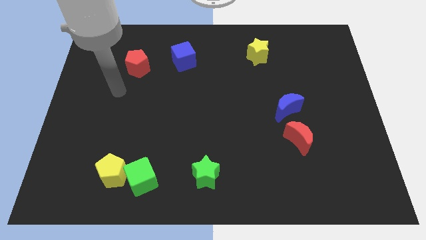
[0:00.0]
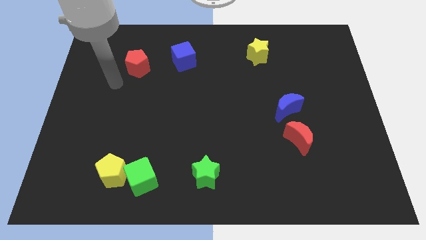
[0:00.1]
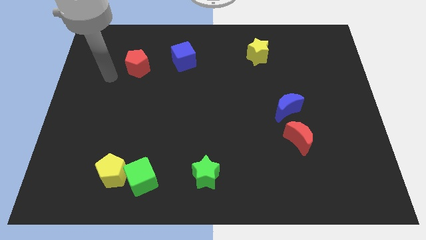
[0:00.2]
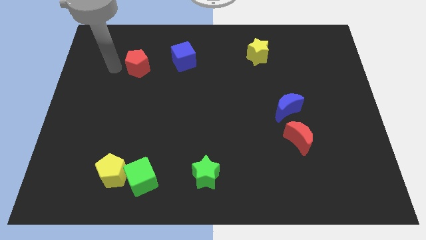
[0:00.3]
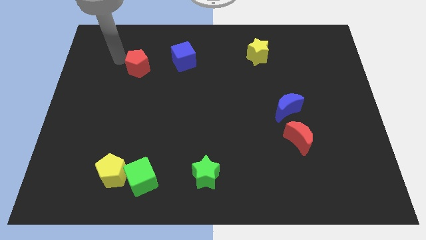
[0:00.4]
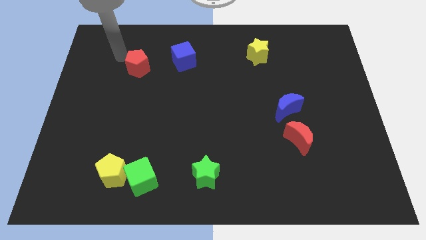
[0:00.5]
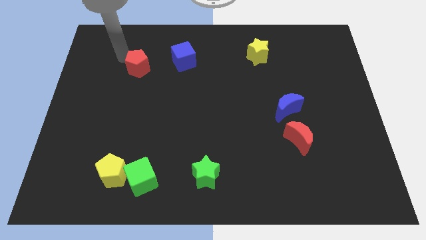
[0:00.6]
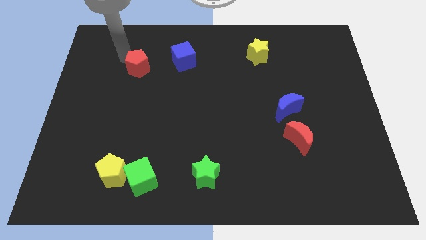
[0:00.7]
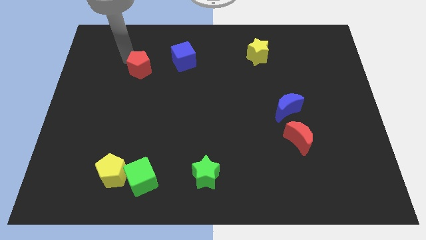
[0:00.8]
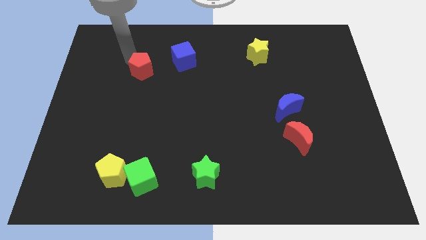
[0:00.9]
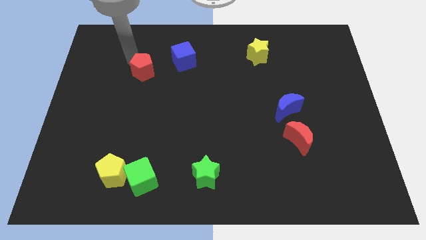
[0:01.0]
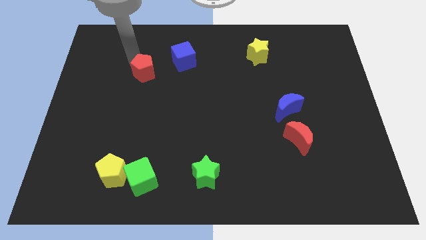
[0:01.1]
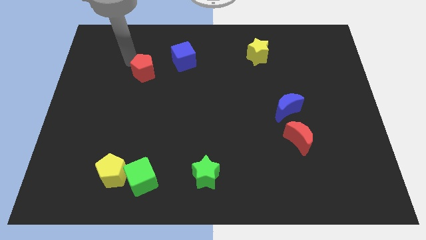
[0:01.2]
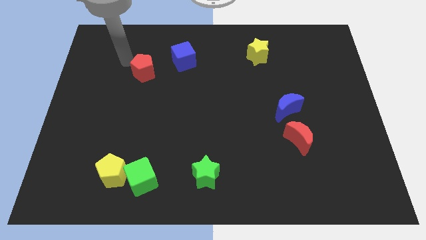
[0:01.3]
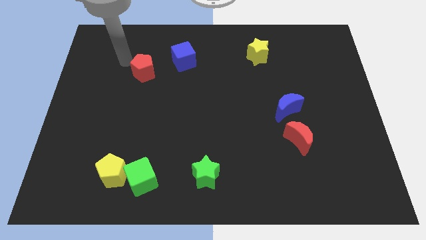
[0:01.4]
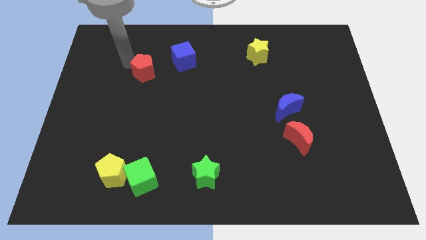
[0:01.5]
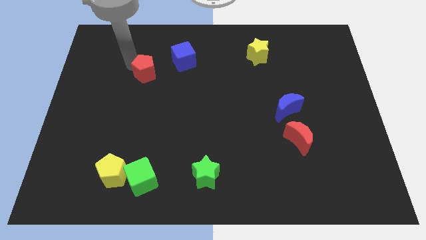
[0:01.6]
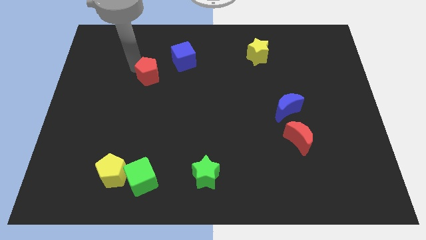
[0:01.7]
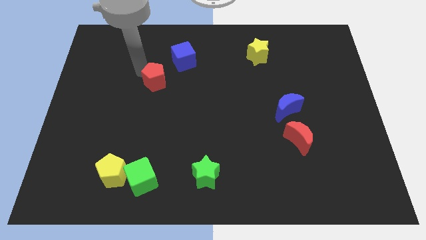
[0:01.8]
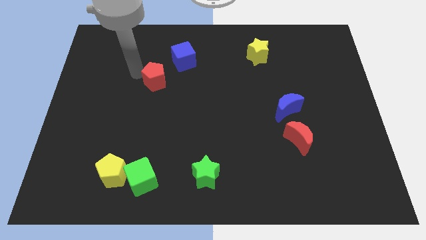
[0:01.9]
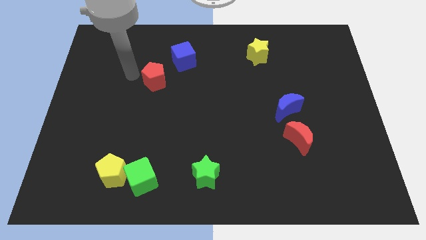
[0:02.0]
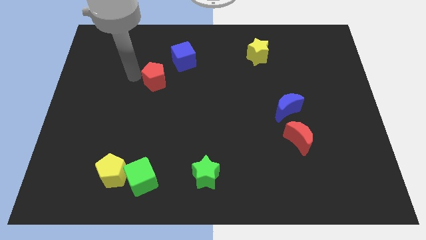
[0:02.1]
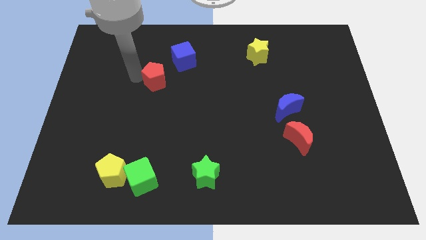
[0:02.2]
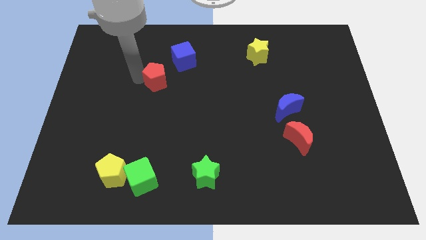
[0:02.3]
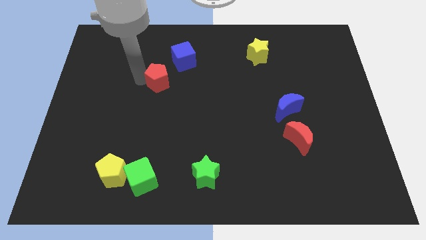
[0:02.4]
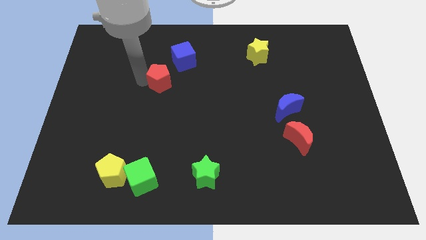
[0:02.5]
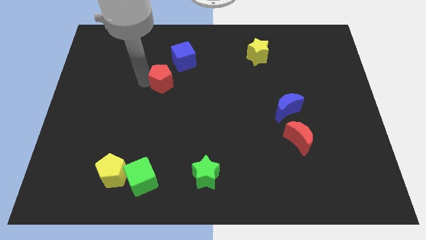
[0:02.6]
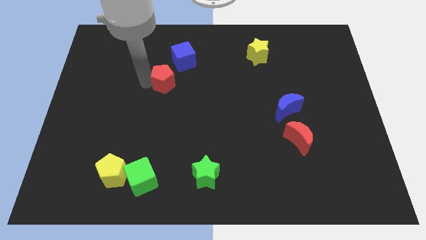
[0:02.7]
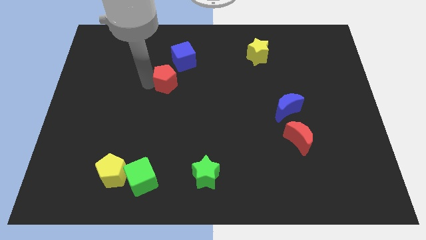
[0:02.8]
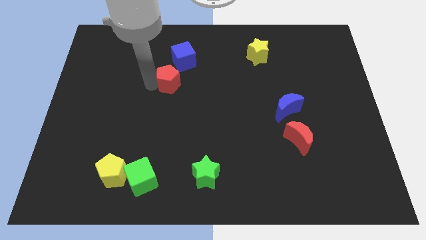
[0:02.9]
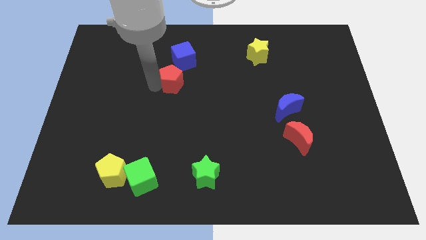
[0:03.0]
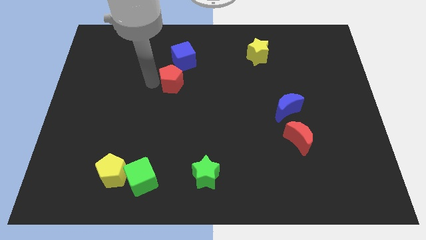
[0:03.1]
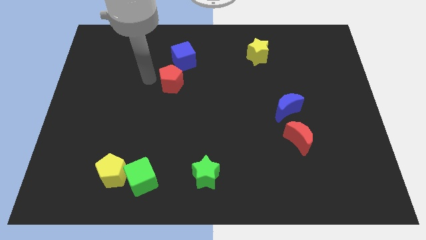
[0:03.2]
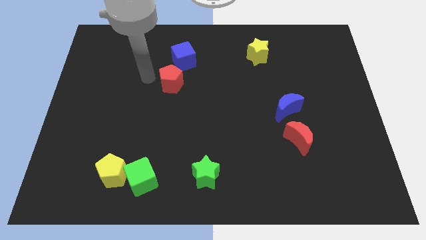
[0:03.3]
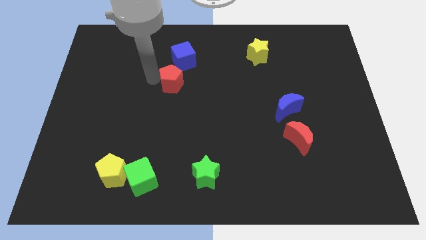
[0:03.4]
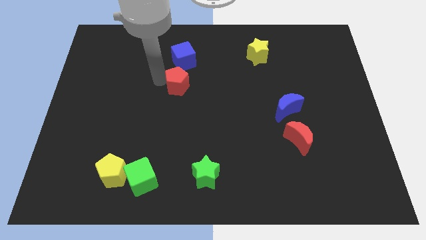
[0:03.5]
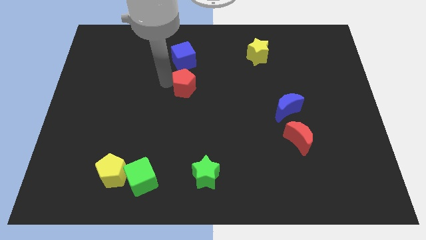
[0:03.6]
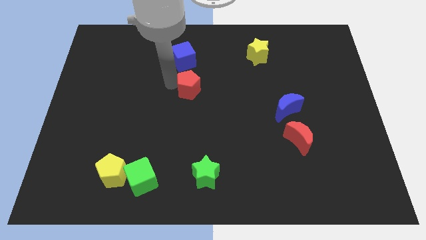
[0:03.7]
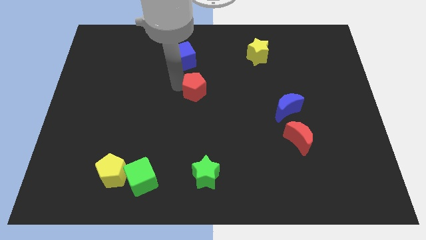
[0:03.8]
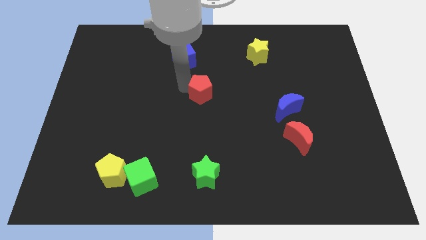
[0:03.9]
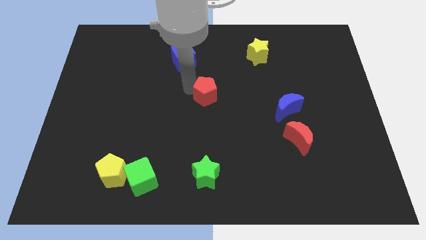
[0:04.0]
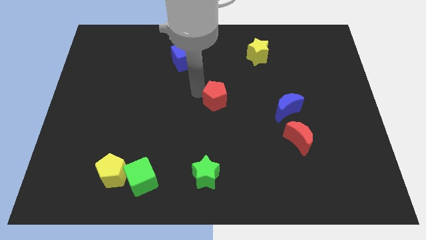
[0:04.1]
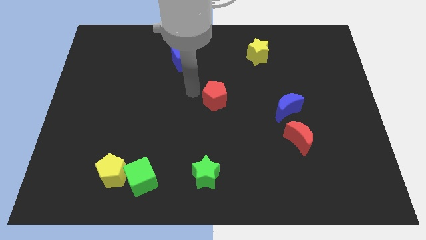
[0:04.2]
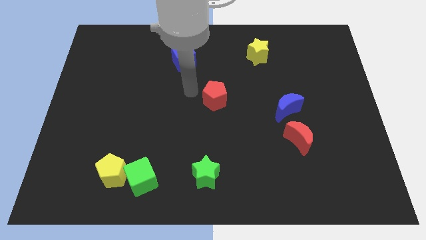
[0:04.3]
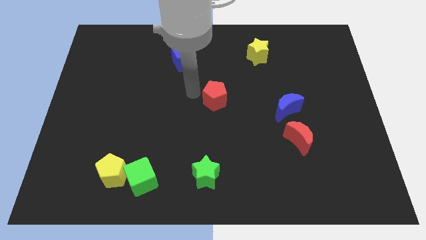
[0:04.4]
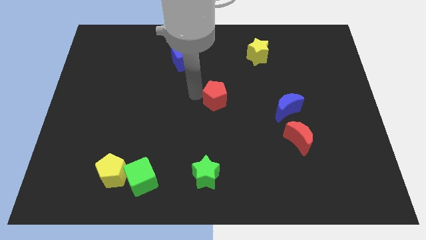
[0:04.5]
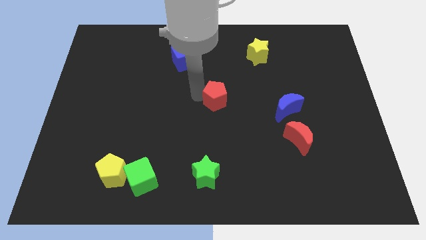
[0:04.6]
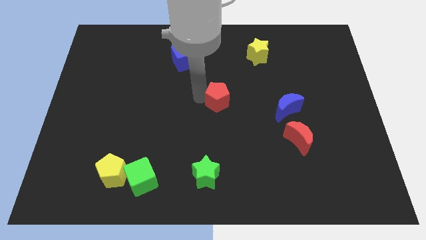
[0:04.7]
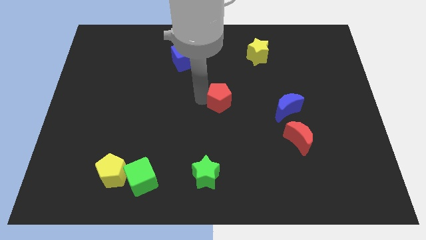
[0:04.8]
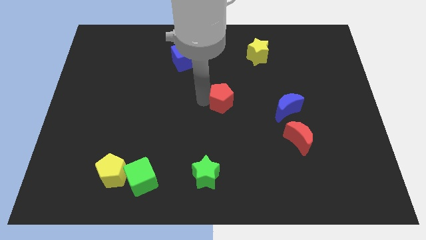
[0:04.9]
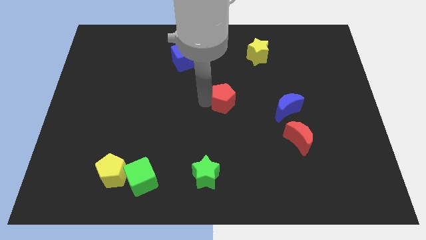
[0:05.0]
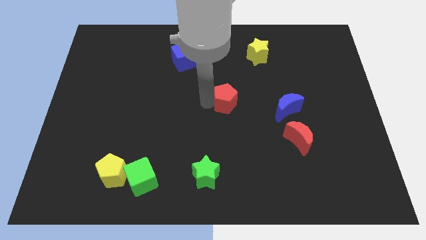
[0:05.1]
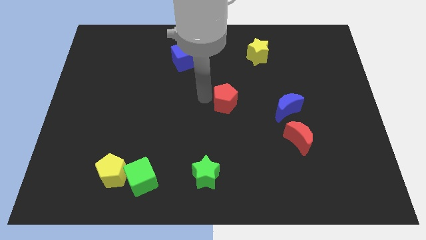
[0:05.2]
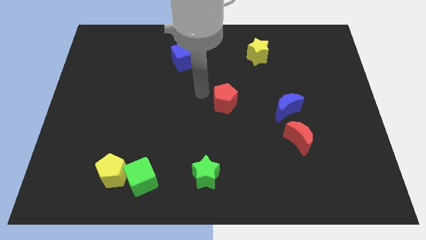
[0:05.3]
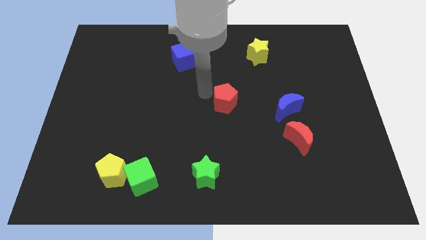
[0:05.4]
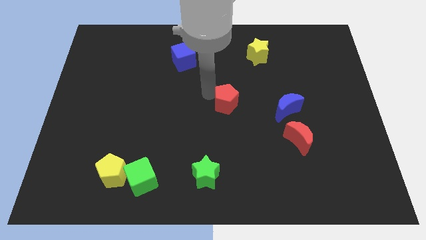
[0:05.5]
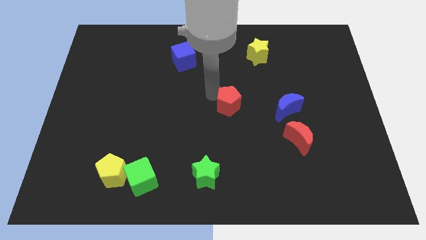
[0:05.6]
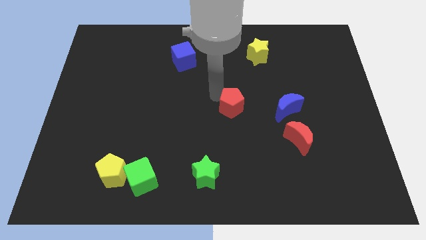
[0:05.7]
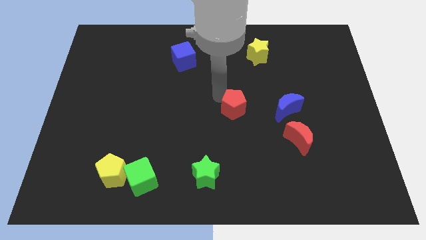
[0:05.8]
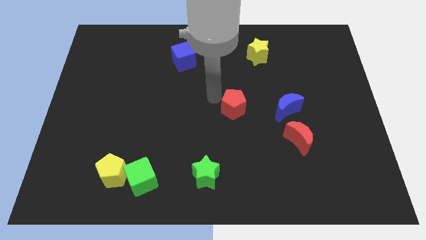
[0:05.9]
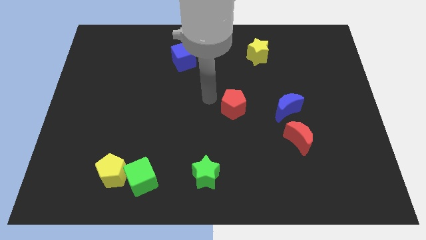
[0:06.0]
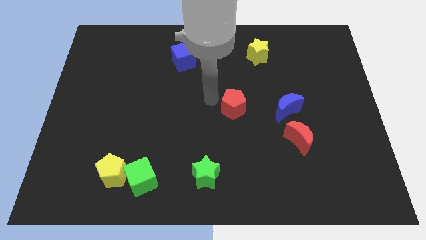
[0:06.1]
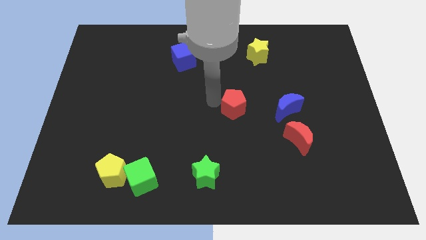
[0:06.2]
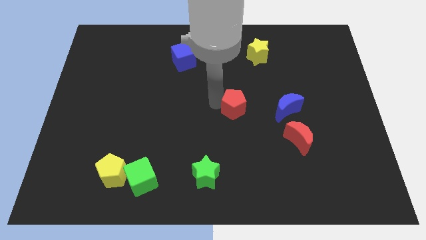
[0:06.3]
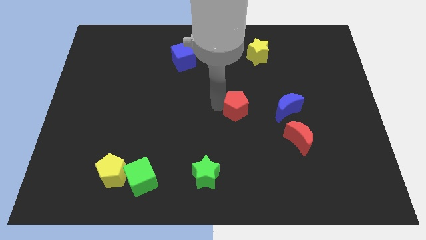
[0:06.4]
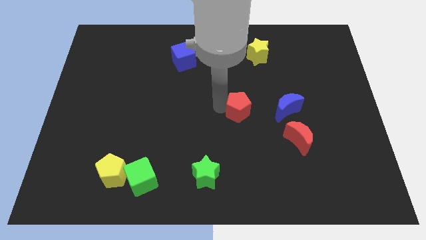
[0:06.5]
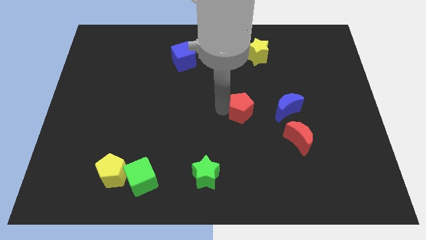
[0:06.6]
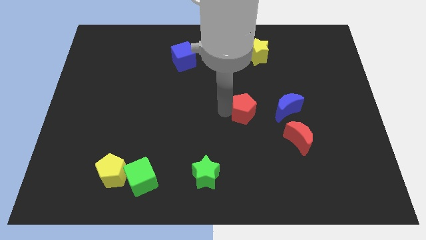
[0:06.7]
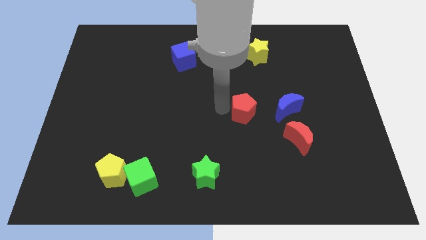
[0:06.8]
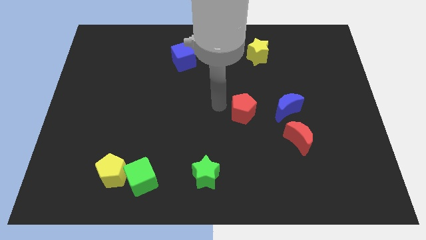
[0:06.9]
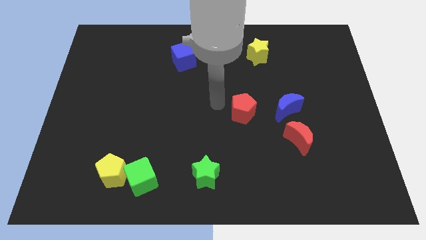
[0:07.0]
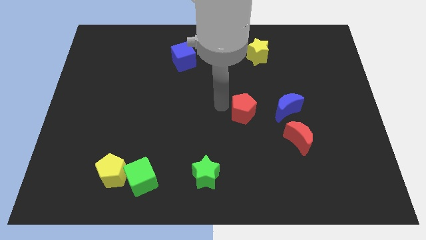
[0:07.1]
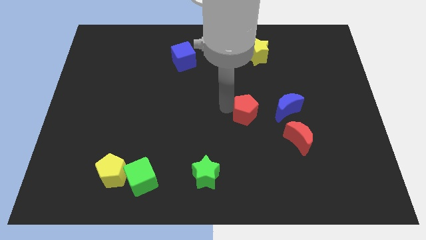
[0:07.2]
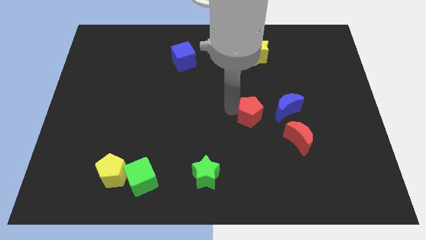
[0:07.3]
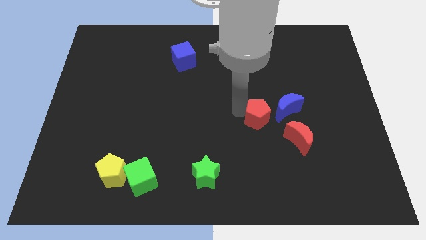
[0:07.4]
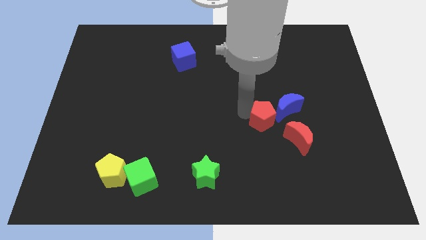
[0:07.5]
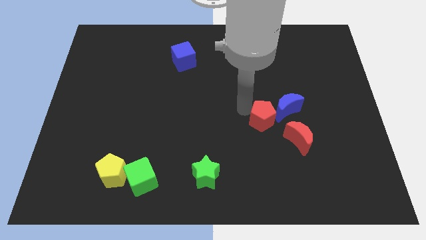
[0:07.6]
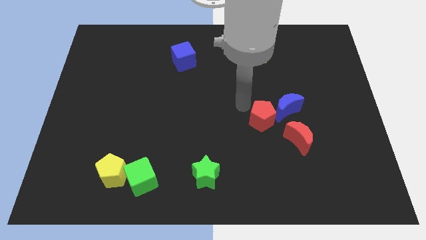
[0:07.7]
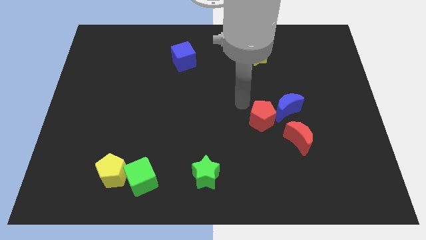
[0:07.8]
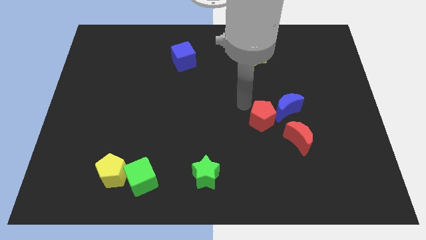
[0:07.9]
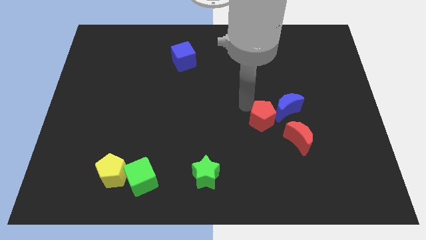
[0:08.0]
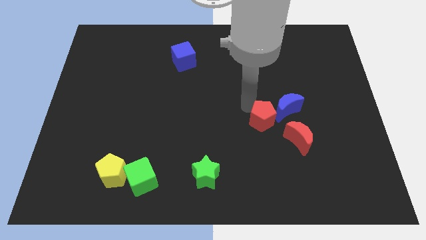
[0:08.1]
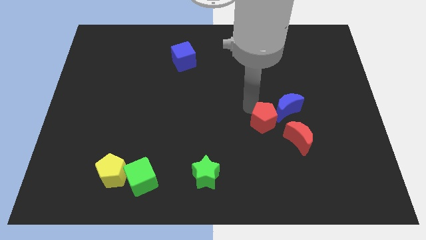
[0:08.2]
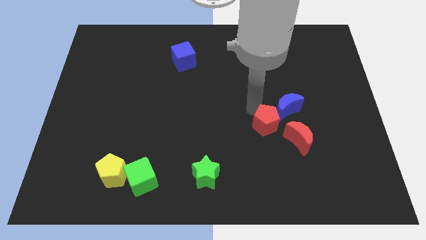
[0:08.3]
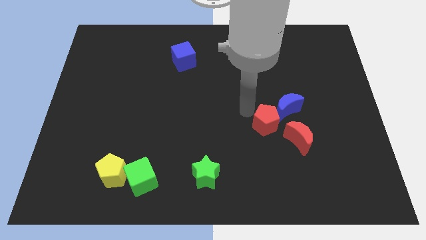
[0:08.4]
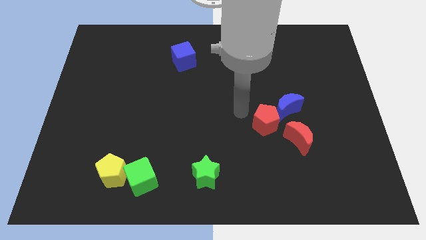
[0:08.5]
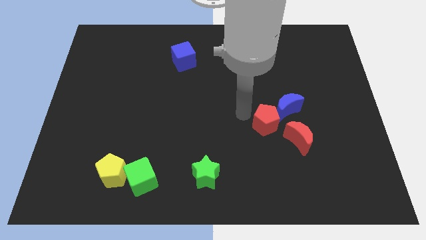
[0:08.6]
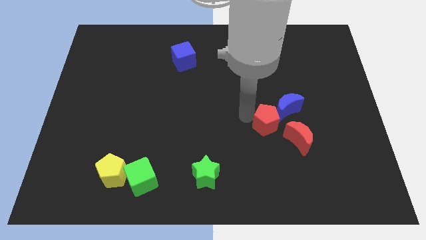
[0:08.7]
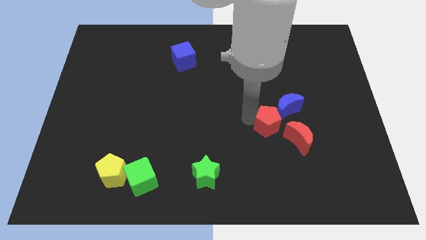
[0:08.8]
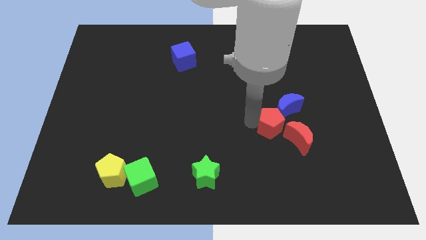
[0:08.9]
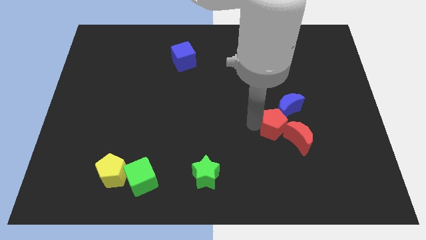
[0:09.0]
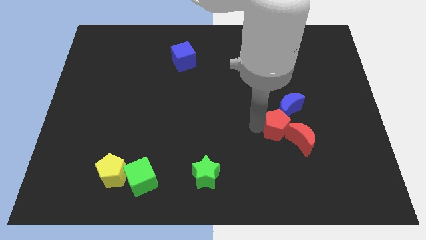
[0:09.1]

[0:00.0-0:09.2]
push the red pentagon close to the red moon
